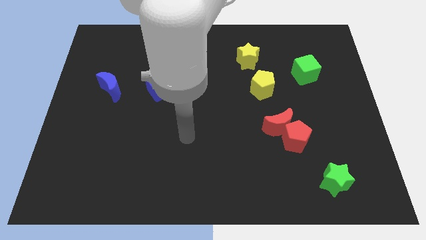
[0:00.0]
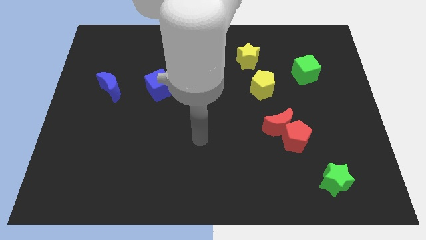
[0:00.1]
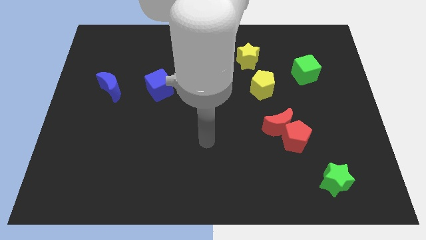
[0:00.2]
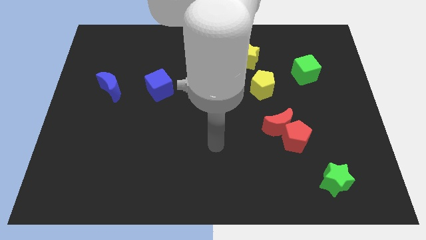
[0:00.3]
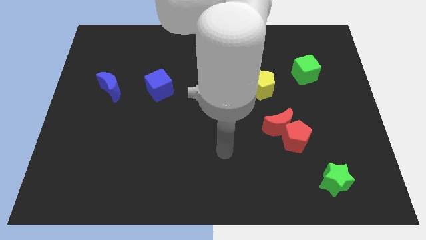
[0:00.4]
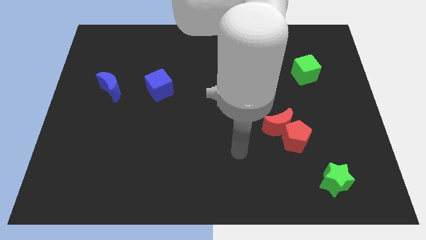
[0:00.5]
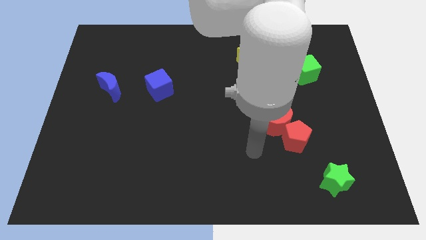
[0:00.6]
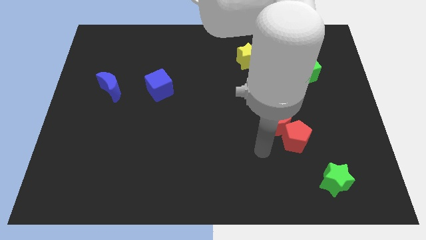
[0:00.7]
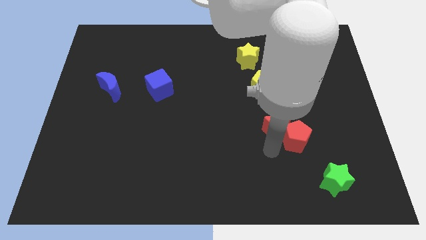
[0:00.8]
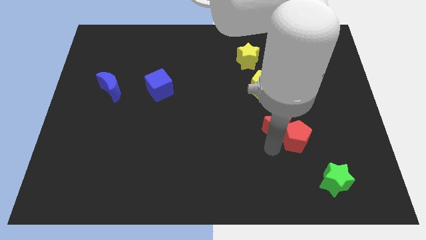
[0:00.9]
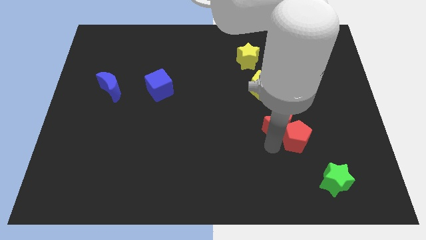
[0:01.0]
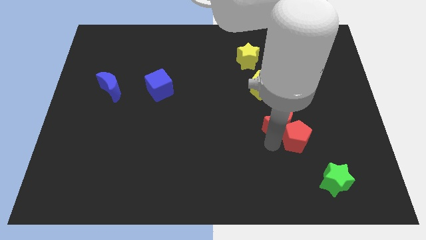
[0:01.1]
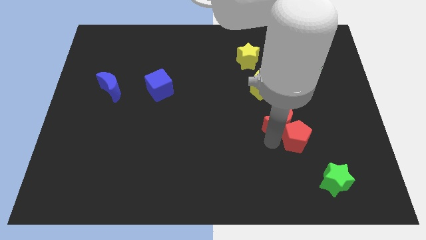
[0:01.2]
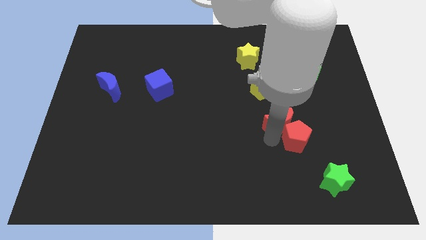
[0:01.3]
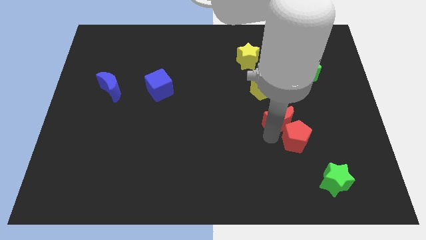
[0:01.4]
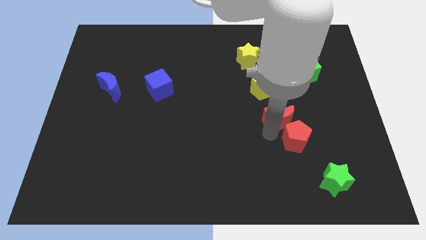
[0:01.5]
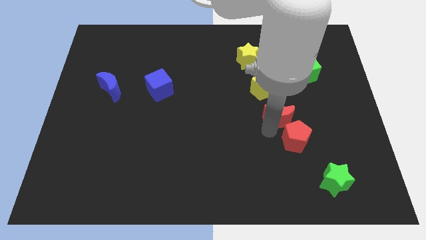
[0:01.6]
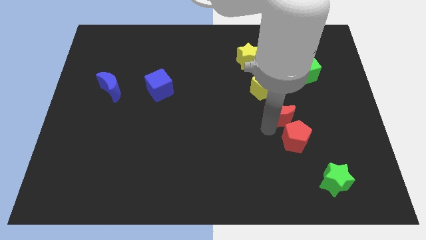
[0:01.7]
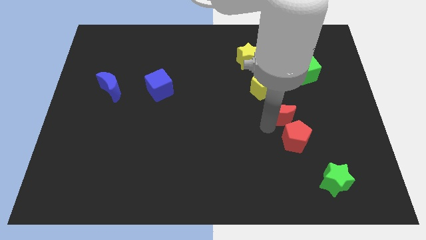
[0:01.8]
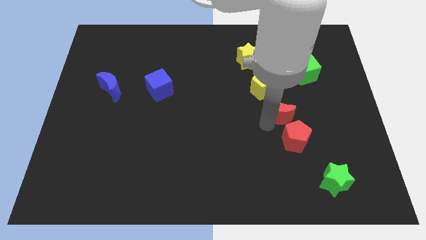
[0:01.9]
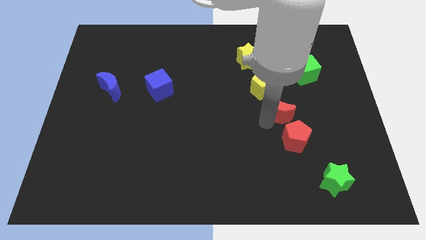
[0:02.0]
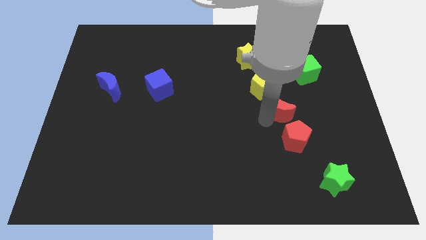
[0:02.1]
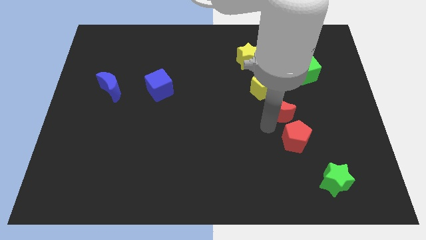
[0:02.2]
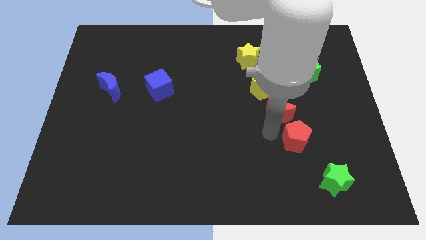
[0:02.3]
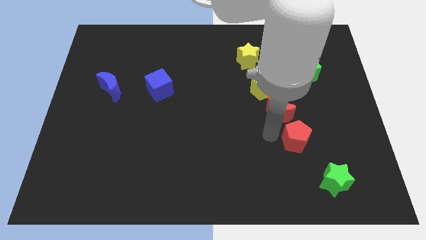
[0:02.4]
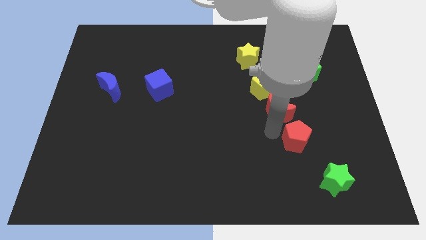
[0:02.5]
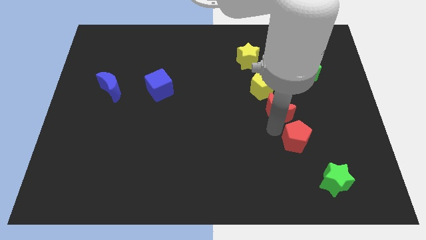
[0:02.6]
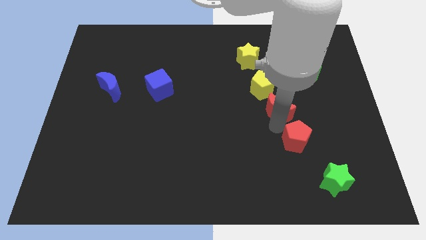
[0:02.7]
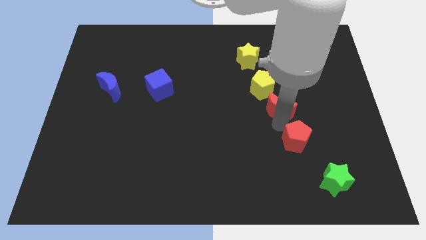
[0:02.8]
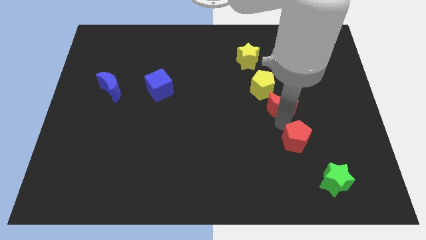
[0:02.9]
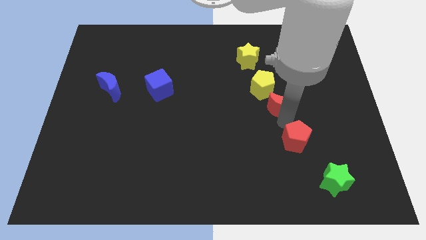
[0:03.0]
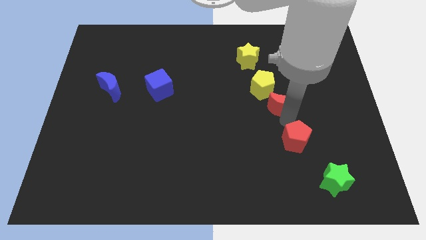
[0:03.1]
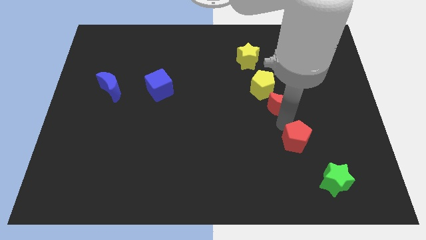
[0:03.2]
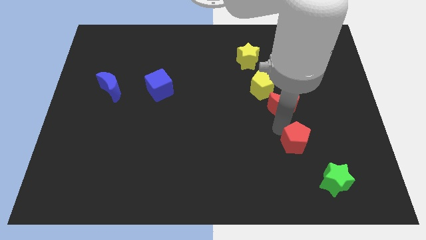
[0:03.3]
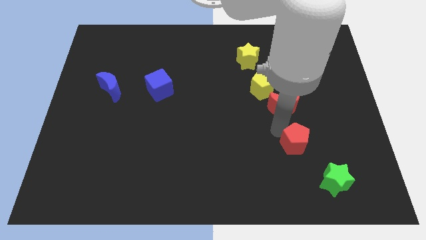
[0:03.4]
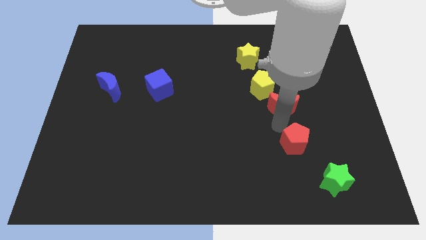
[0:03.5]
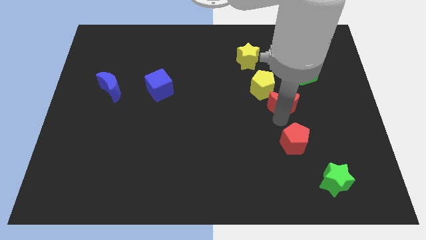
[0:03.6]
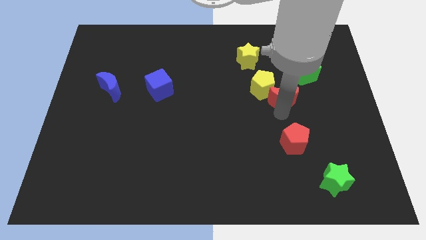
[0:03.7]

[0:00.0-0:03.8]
slide the red moon slightly upwards

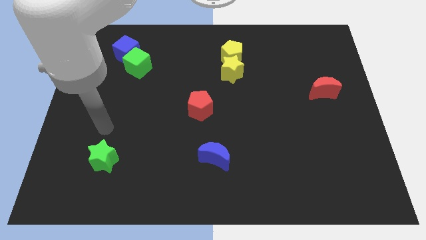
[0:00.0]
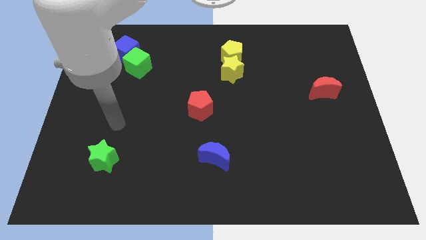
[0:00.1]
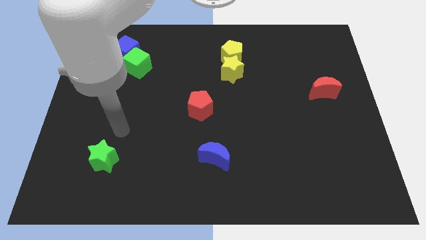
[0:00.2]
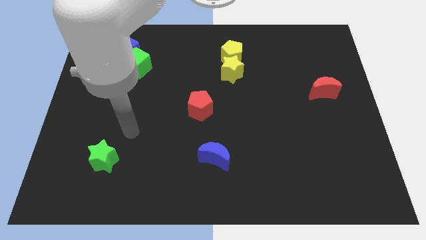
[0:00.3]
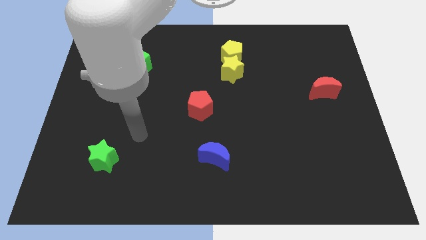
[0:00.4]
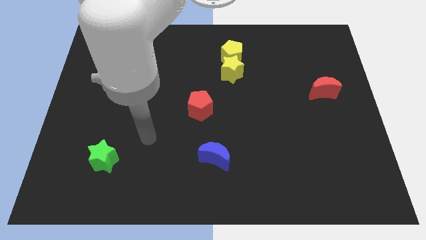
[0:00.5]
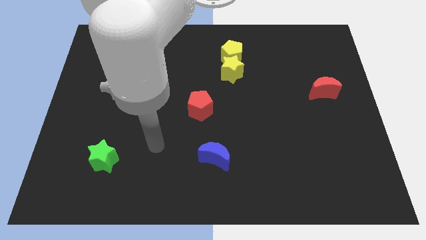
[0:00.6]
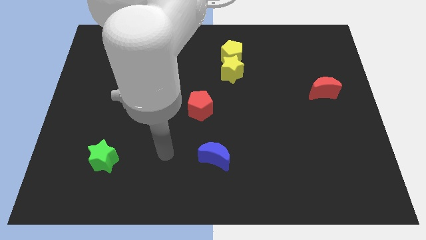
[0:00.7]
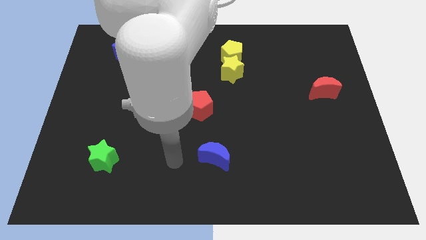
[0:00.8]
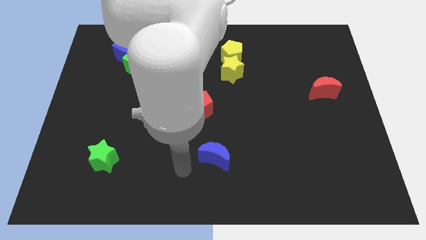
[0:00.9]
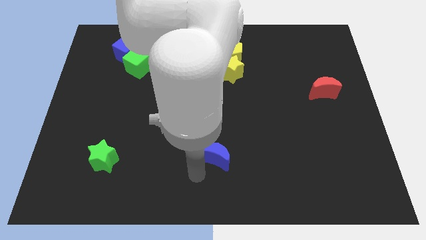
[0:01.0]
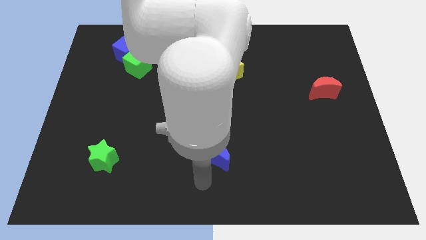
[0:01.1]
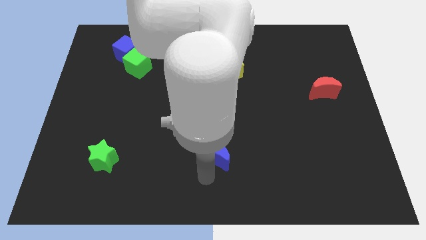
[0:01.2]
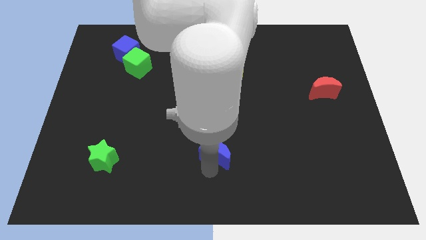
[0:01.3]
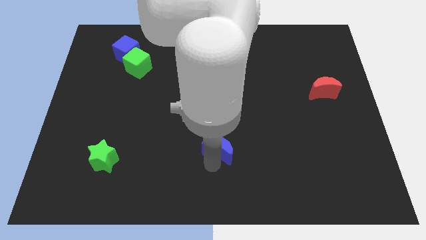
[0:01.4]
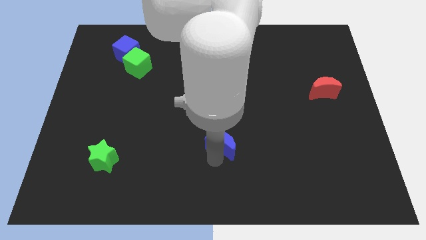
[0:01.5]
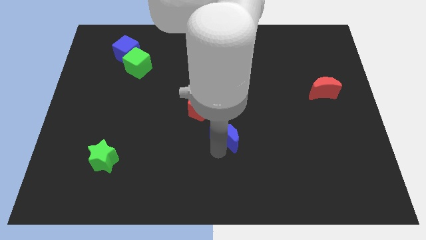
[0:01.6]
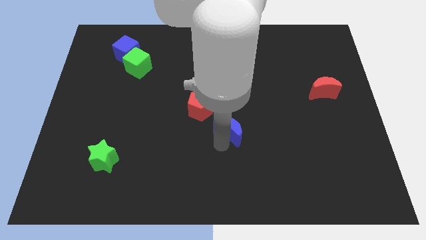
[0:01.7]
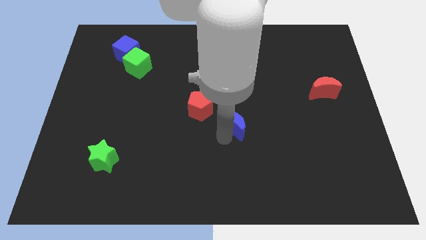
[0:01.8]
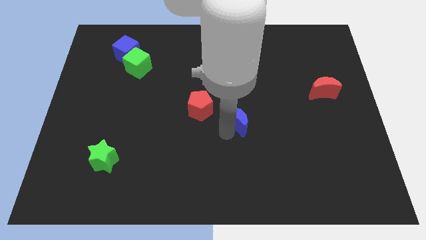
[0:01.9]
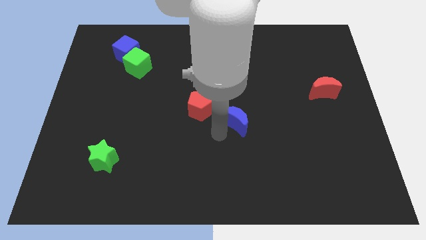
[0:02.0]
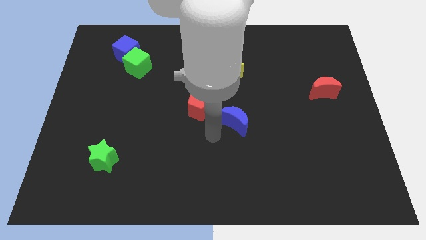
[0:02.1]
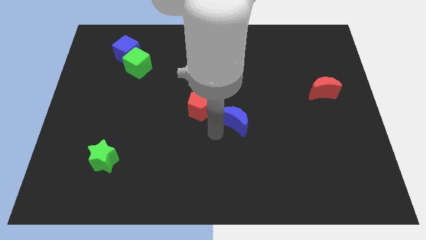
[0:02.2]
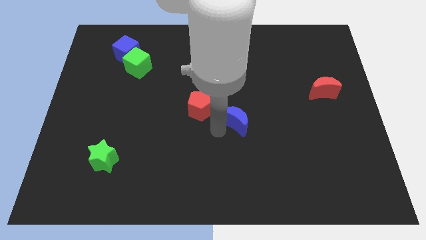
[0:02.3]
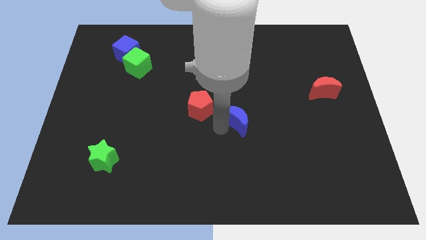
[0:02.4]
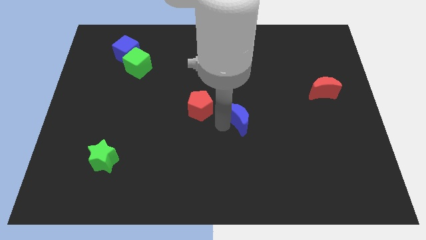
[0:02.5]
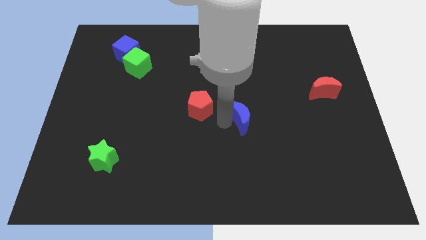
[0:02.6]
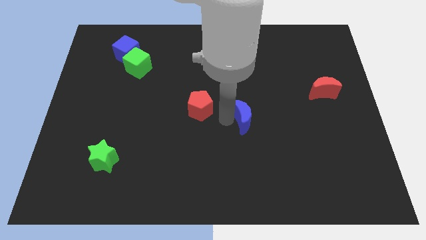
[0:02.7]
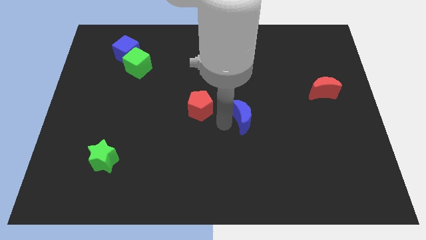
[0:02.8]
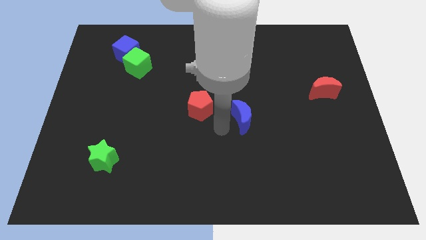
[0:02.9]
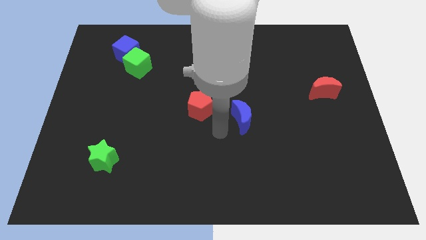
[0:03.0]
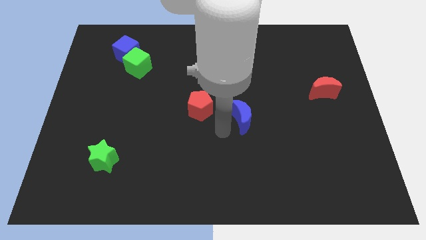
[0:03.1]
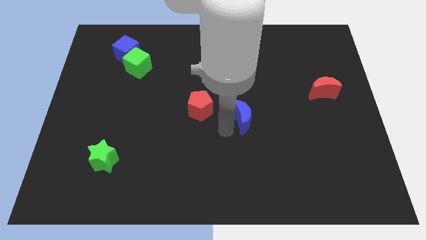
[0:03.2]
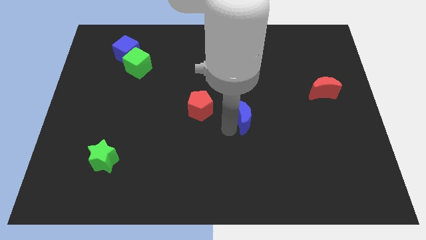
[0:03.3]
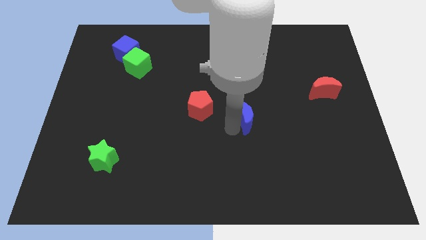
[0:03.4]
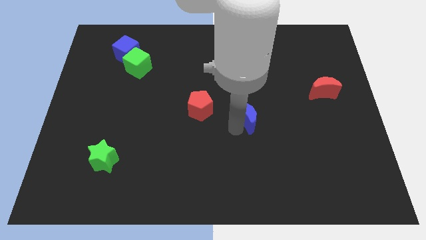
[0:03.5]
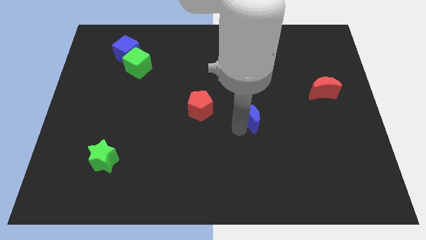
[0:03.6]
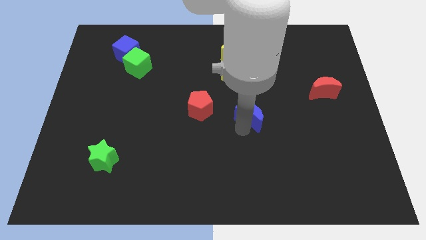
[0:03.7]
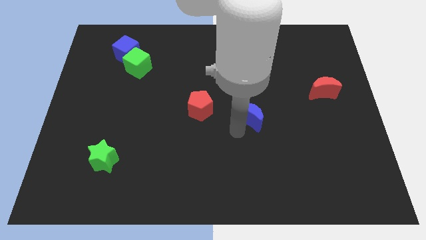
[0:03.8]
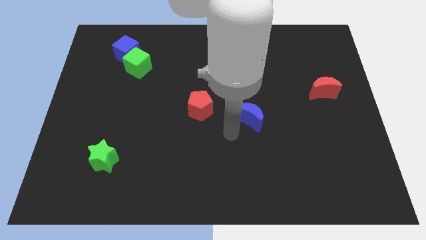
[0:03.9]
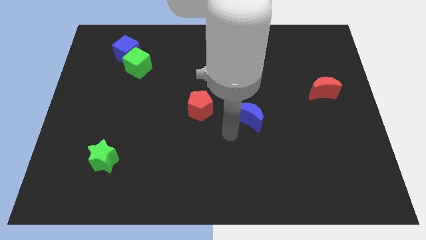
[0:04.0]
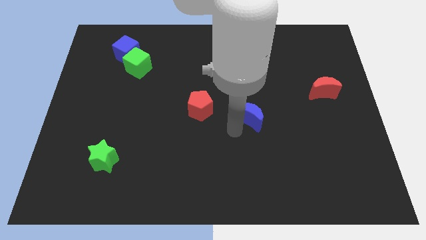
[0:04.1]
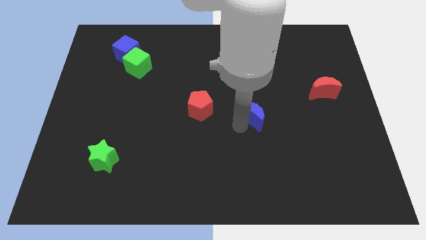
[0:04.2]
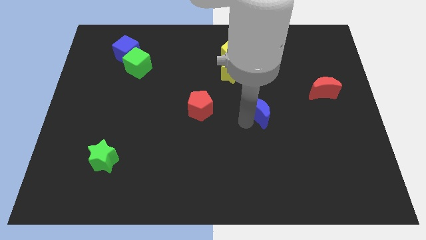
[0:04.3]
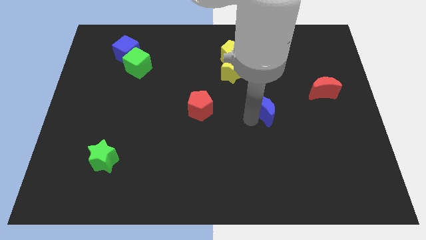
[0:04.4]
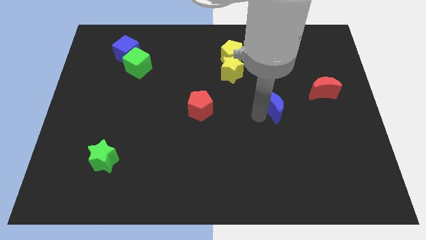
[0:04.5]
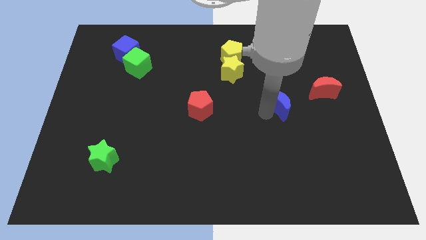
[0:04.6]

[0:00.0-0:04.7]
move the blue moon up and to the right
